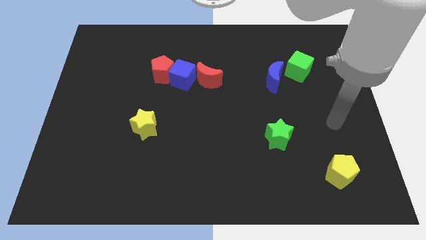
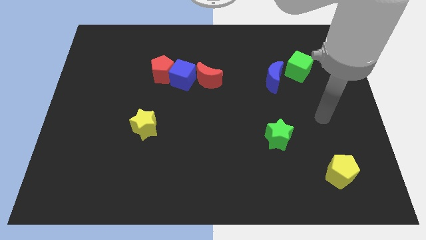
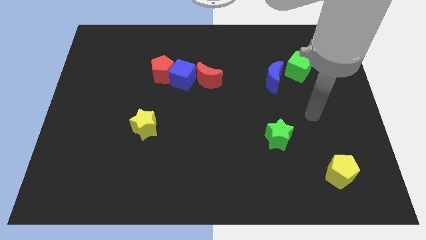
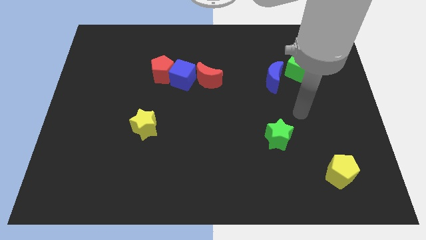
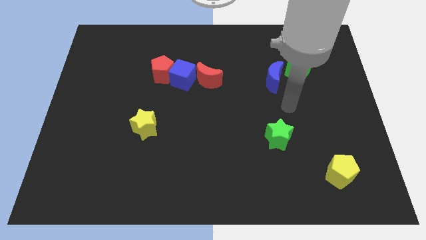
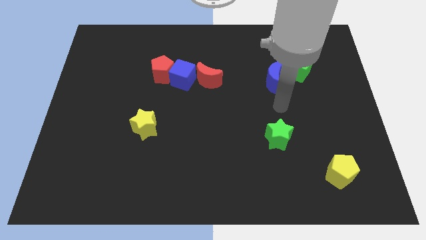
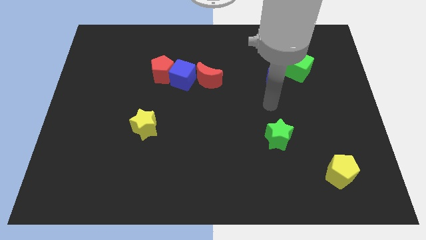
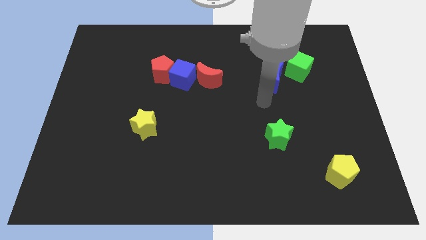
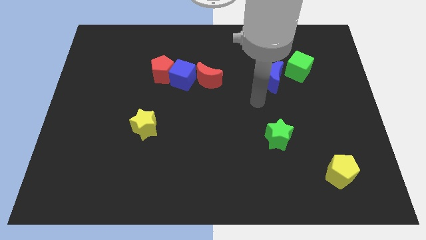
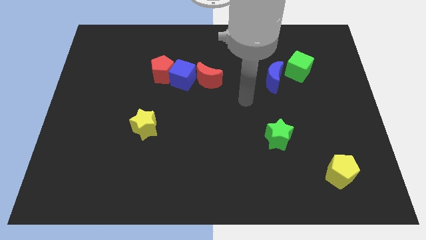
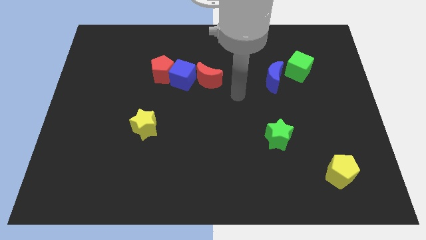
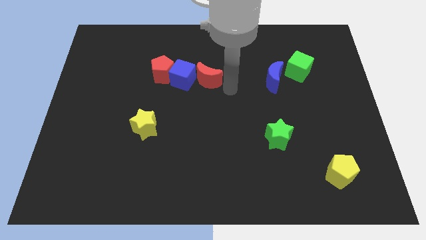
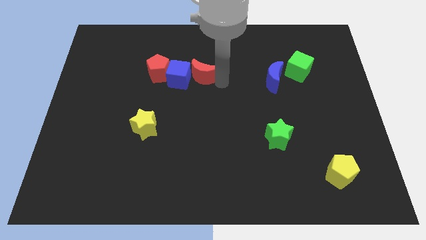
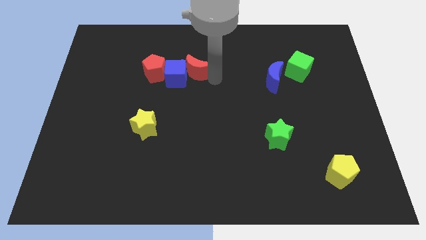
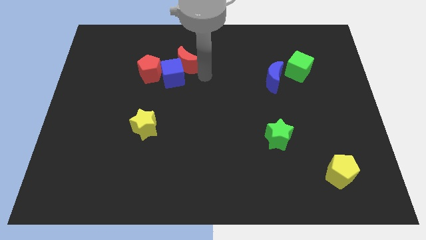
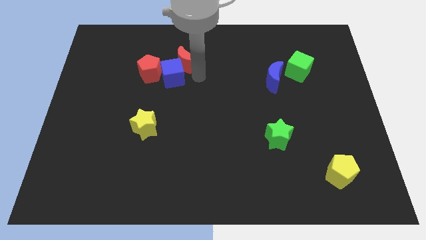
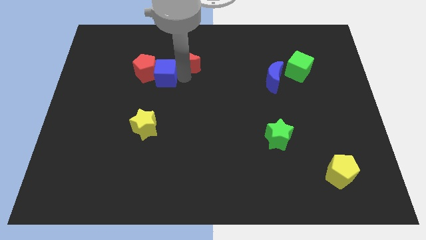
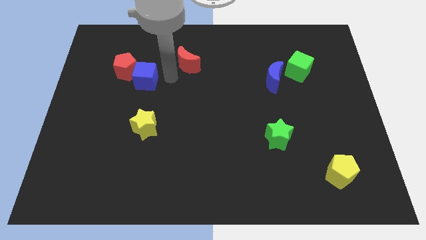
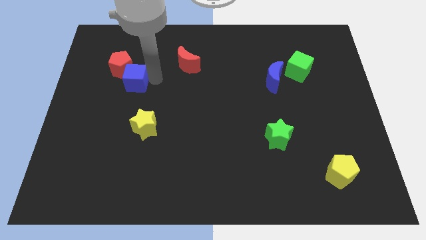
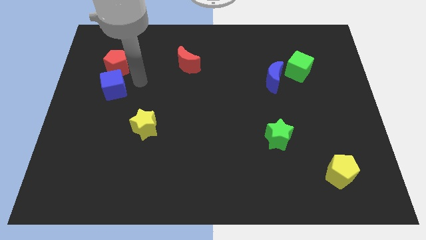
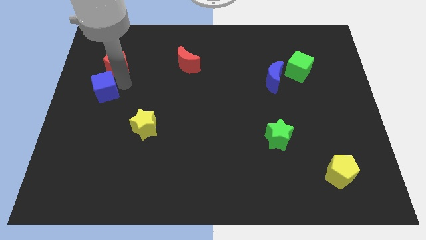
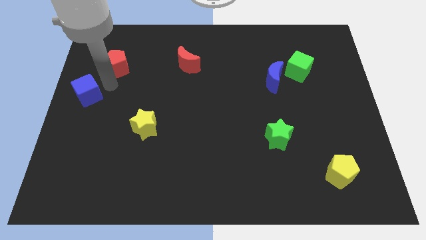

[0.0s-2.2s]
pull the red pentagon apart from the blue cube

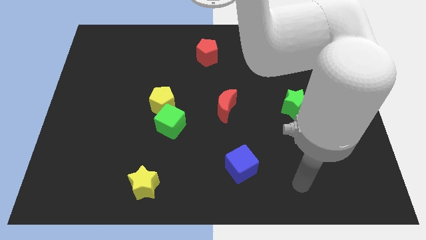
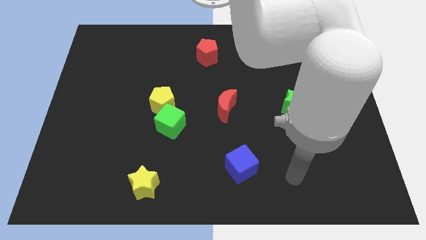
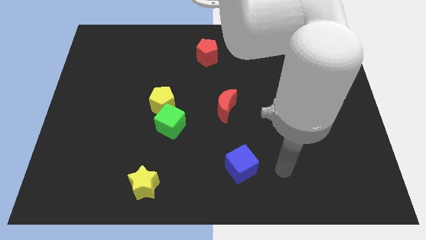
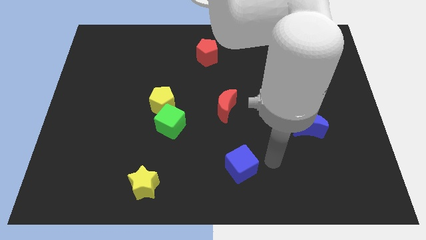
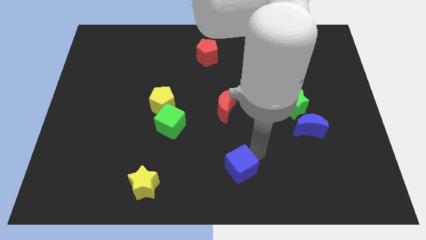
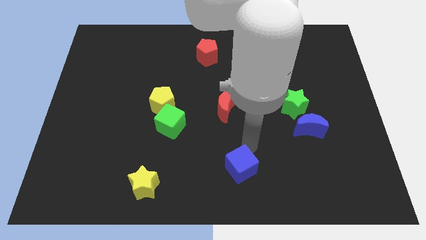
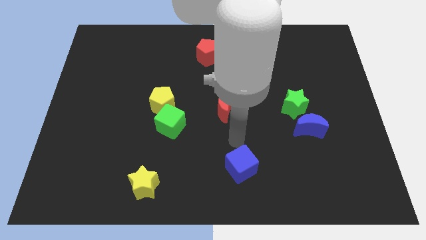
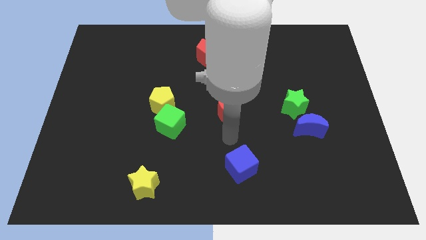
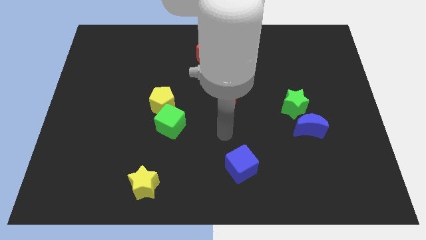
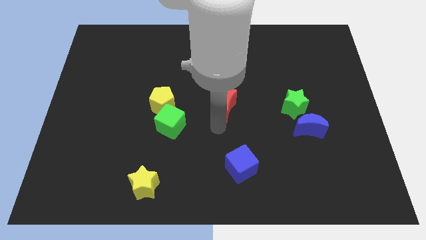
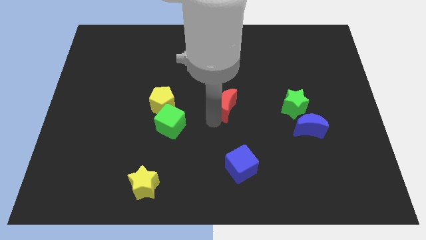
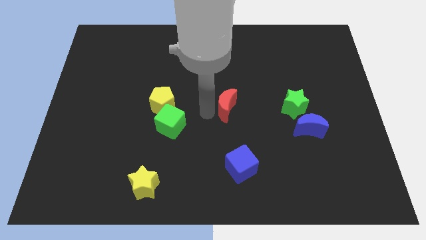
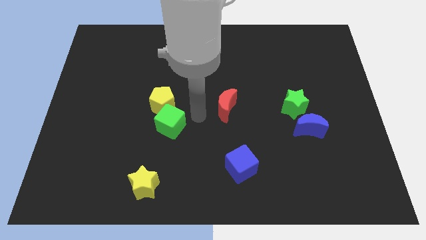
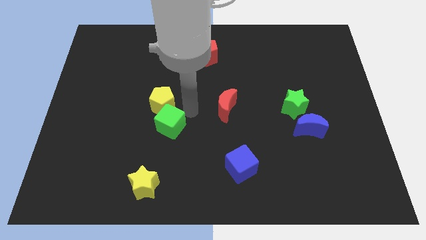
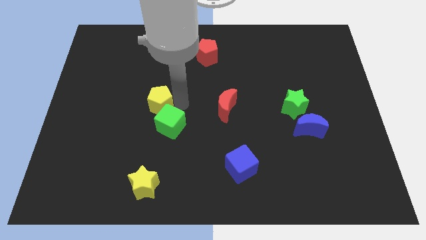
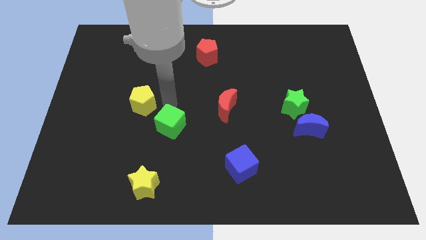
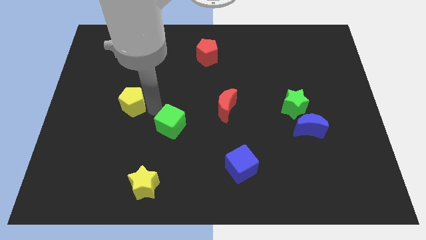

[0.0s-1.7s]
pull the green cube apart from the yellow pentagon

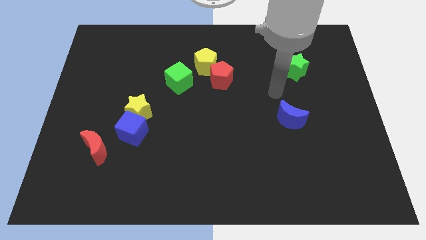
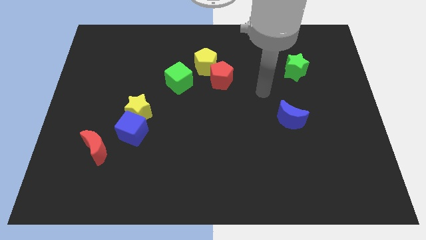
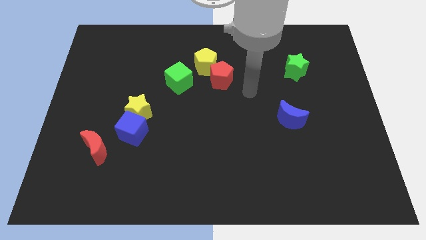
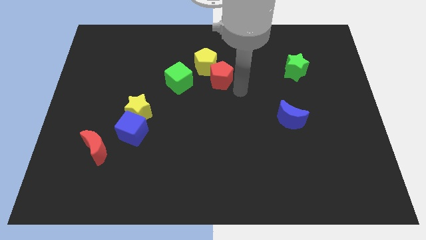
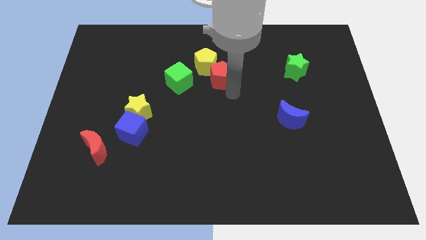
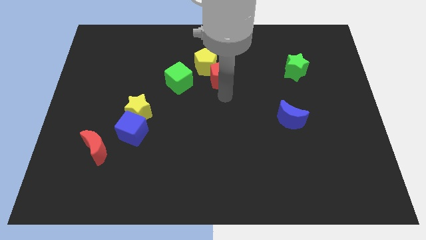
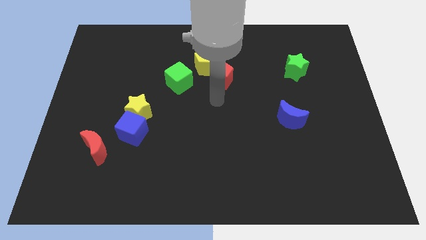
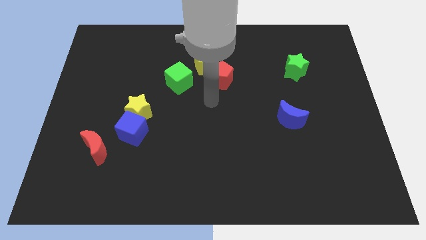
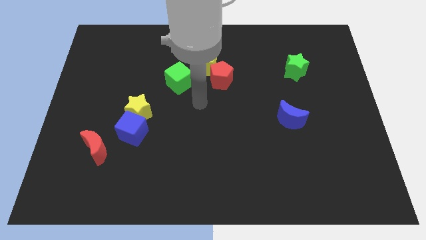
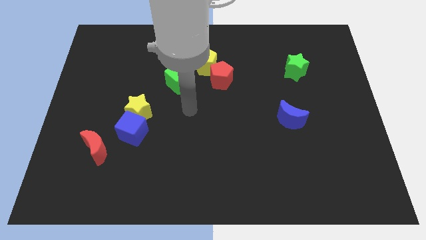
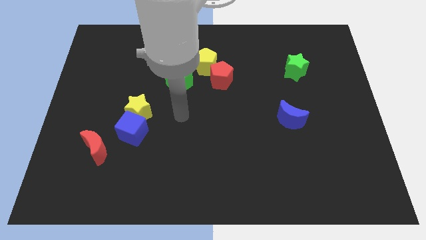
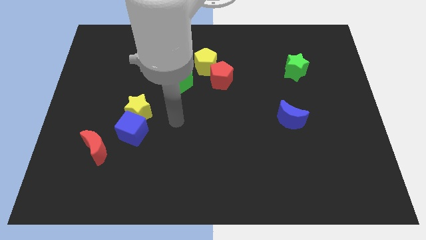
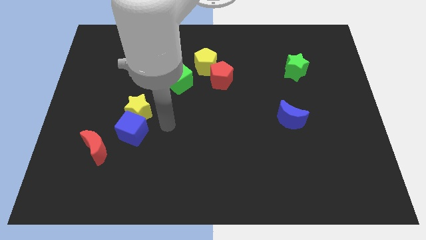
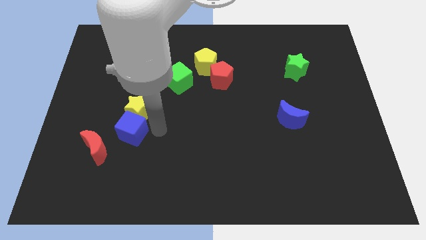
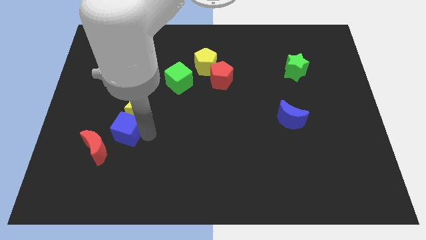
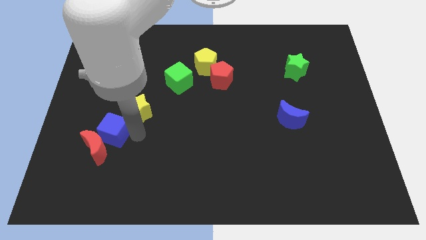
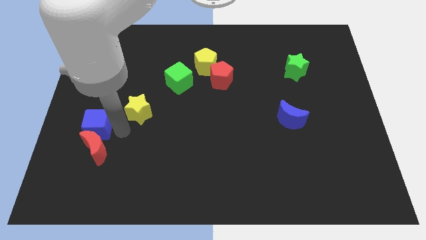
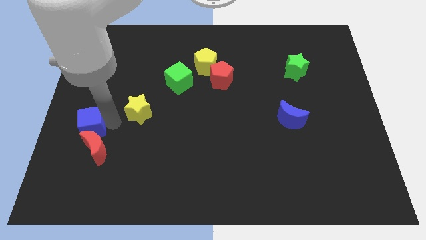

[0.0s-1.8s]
separate the yellow star from the blue cube

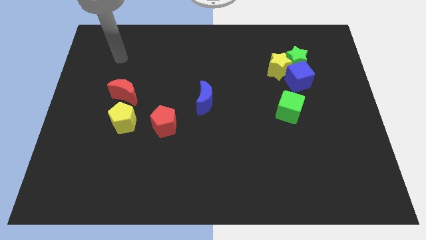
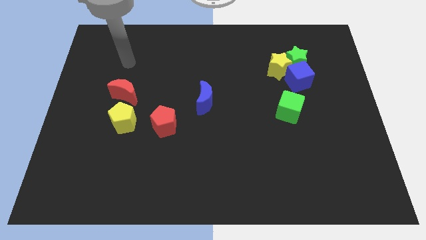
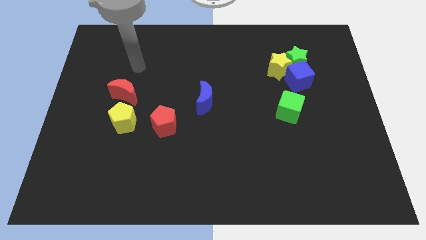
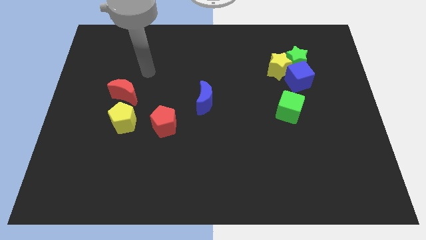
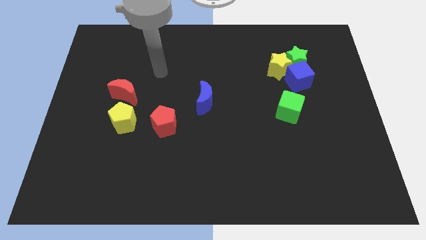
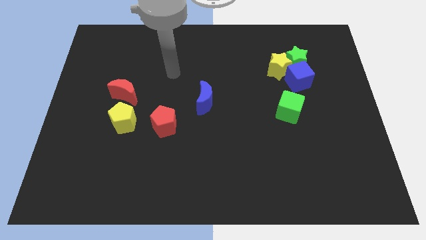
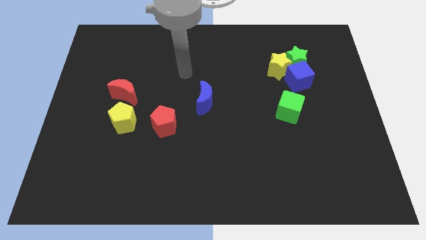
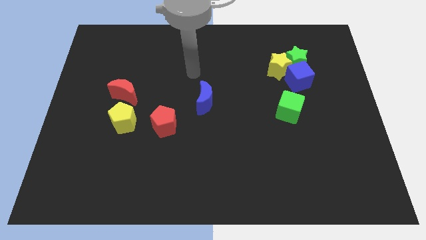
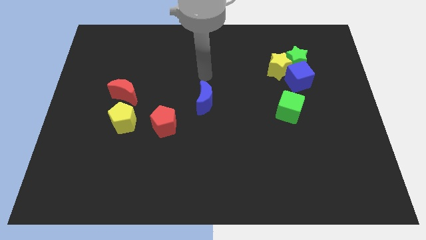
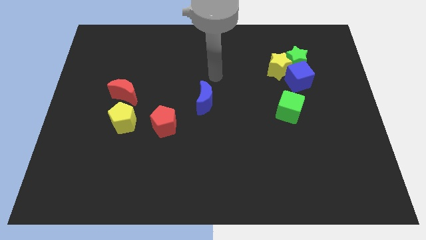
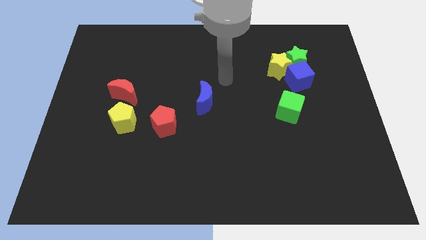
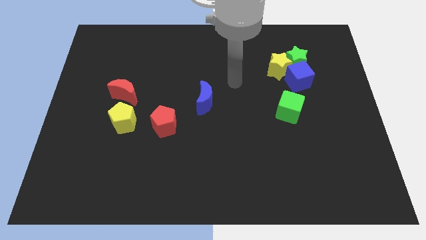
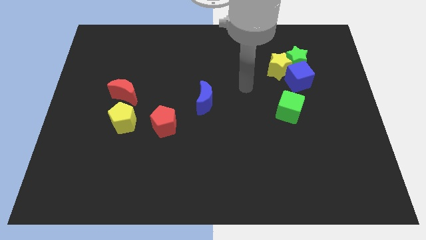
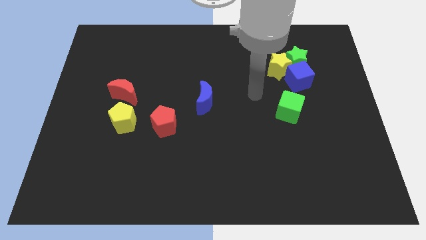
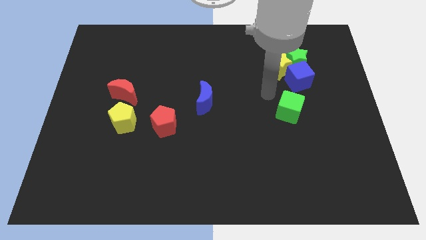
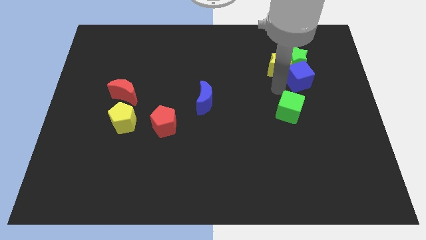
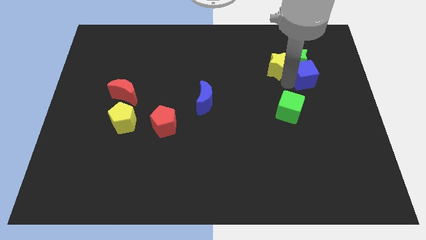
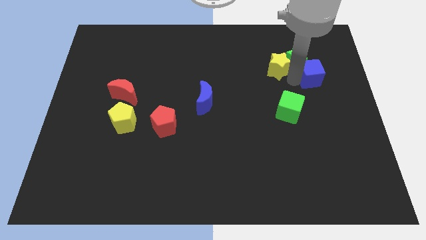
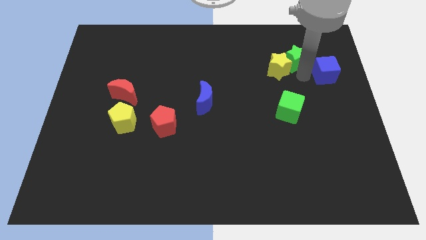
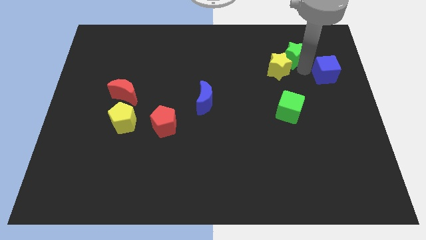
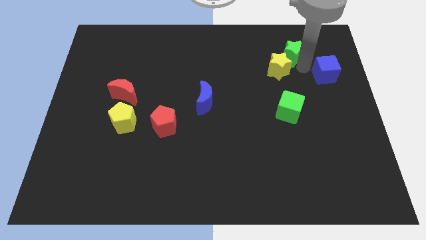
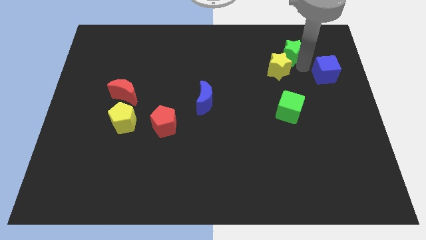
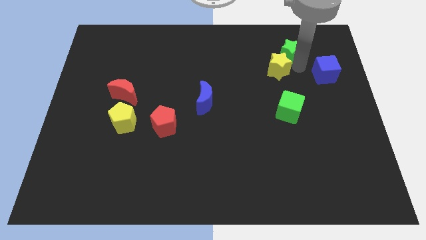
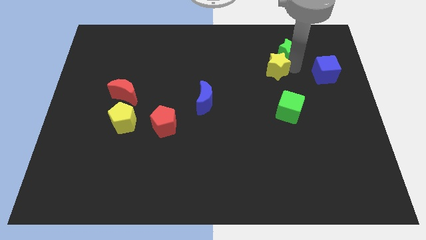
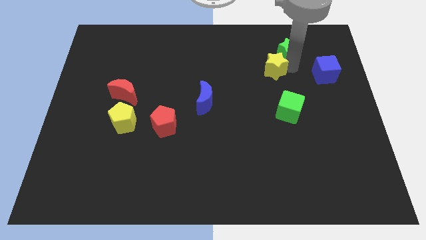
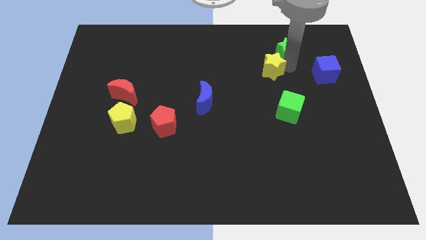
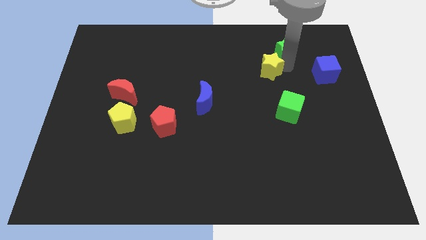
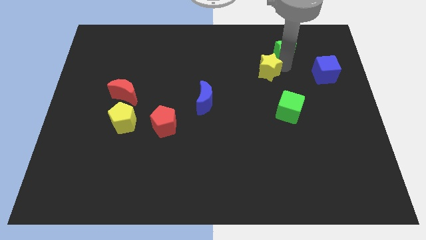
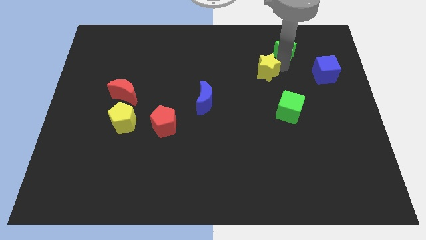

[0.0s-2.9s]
separate the yellow star from the green star and blue cube

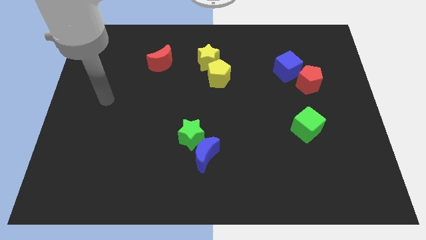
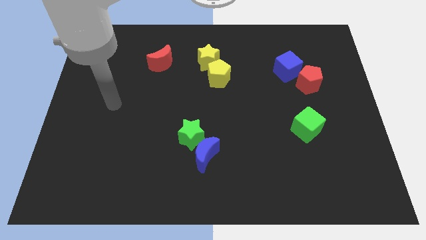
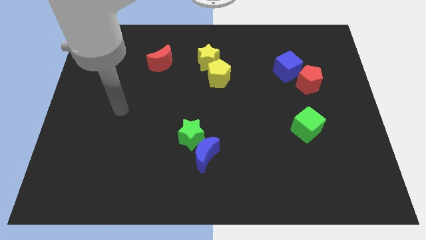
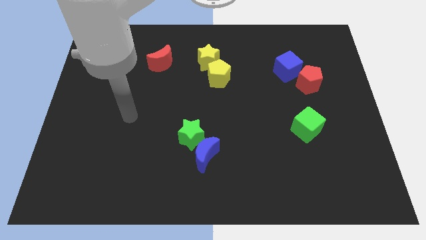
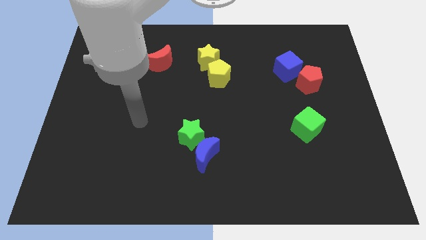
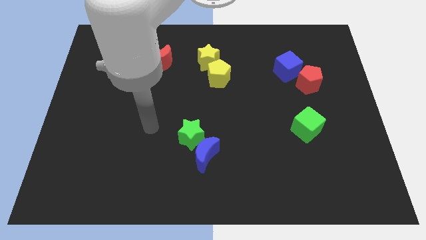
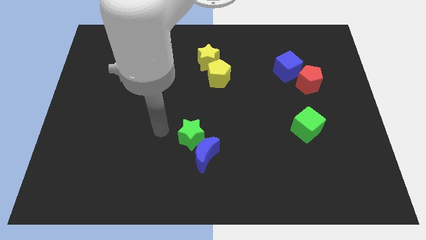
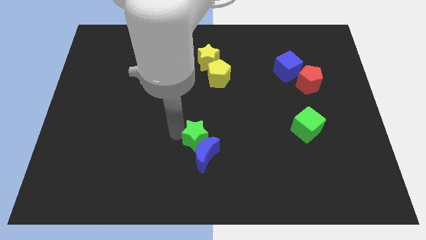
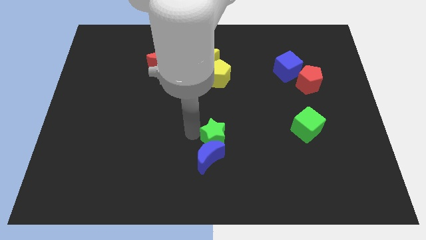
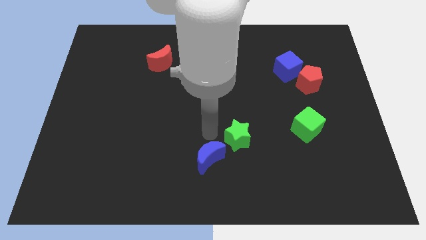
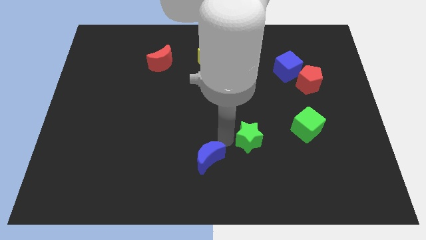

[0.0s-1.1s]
separate the blue moon from the green star
